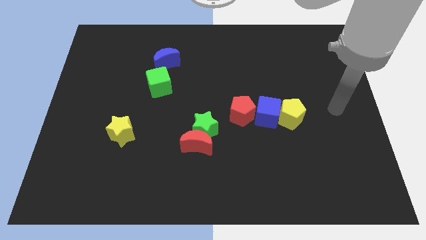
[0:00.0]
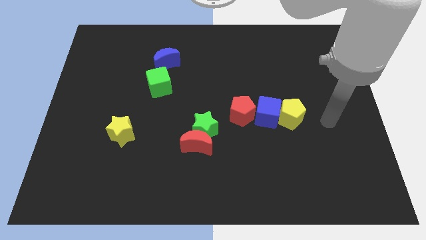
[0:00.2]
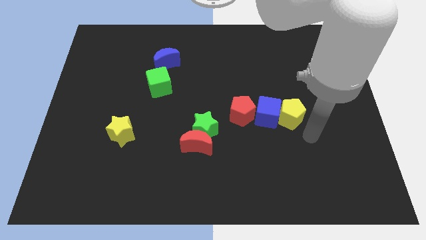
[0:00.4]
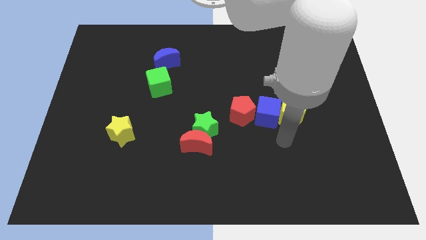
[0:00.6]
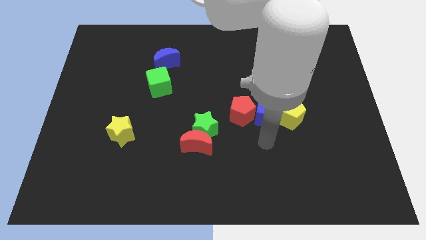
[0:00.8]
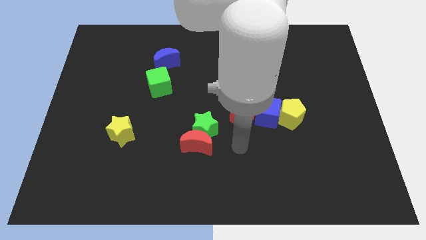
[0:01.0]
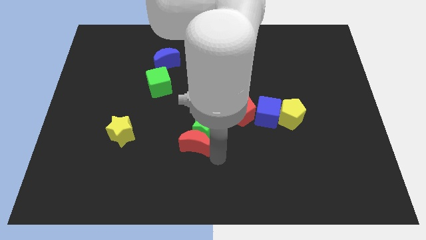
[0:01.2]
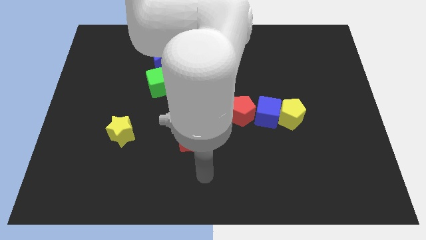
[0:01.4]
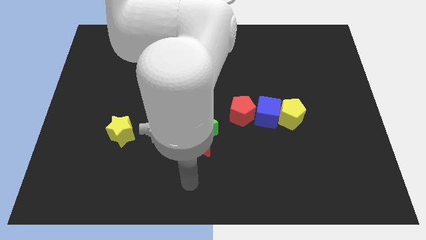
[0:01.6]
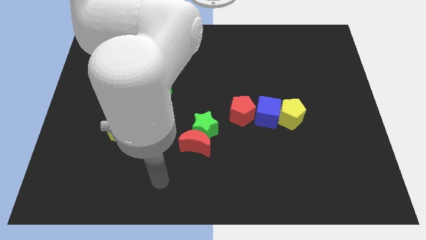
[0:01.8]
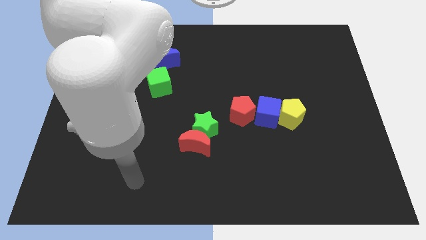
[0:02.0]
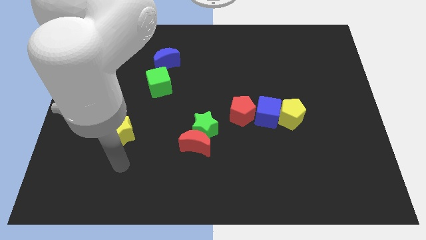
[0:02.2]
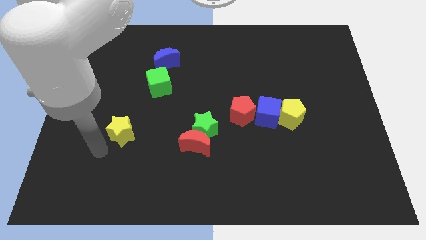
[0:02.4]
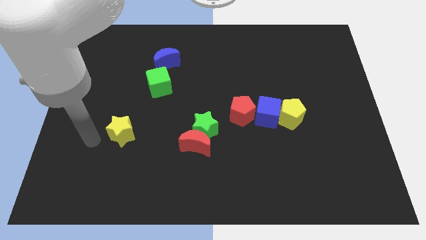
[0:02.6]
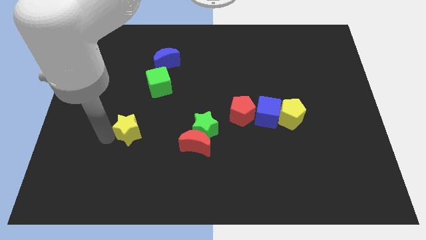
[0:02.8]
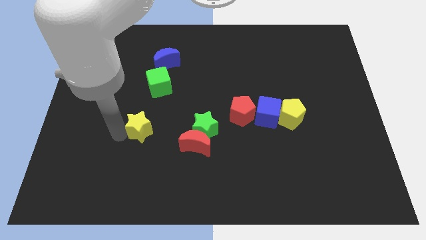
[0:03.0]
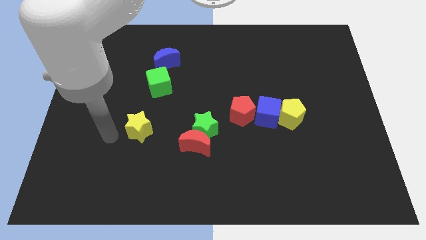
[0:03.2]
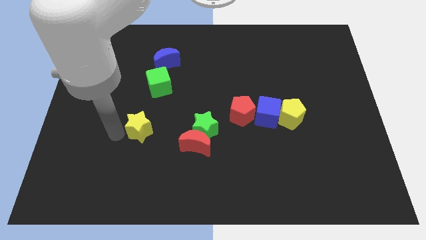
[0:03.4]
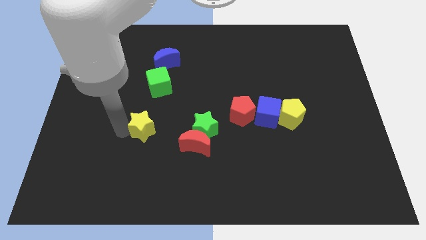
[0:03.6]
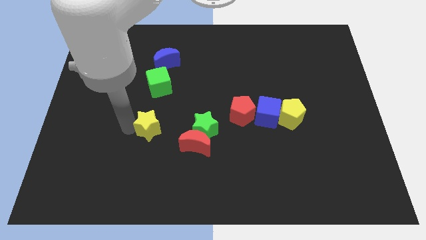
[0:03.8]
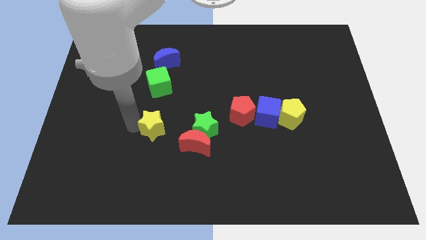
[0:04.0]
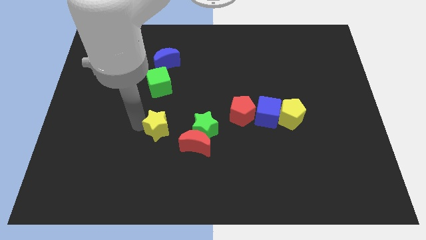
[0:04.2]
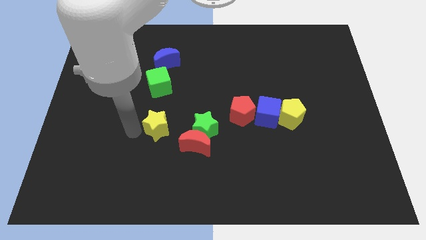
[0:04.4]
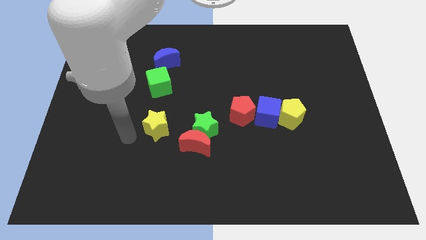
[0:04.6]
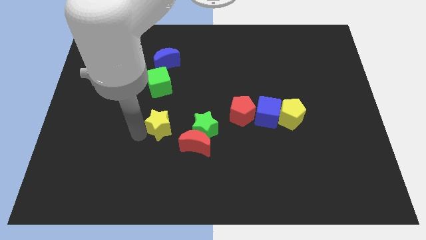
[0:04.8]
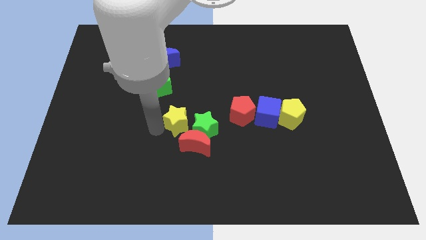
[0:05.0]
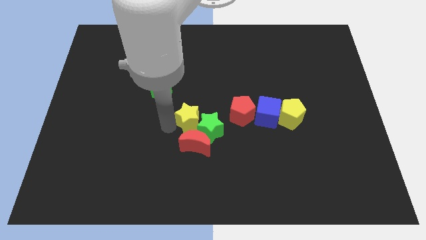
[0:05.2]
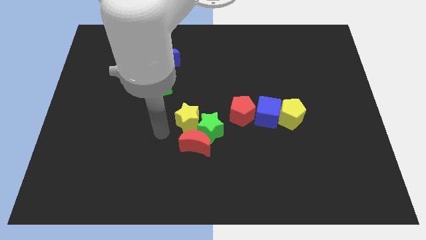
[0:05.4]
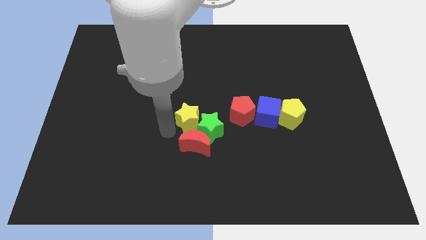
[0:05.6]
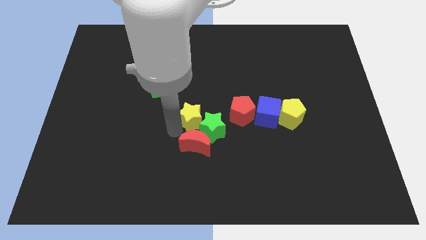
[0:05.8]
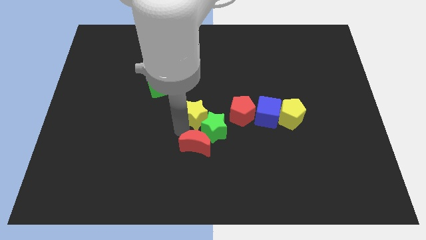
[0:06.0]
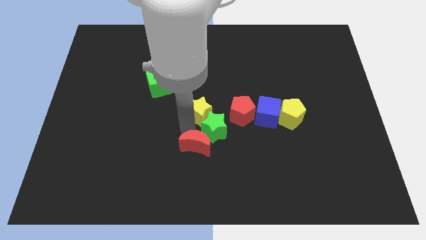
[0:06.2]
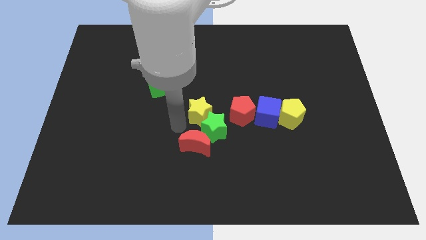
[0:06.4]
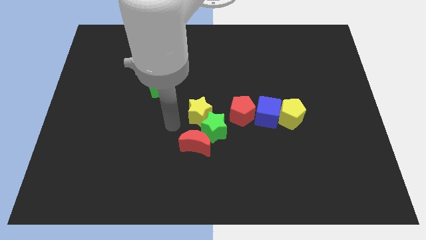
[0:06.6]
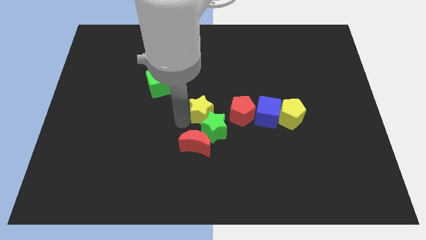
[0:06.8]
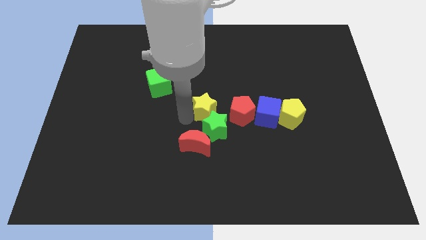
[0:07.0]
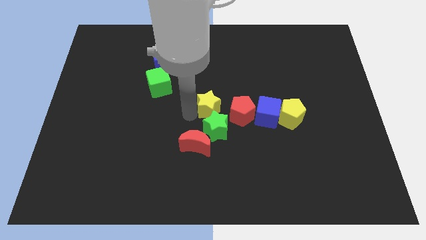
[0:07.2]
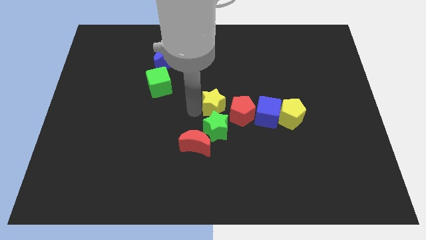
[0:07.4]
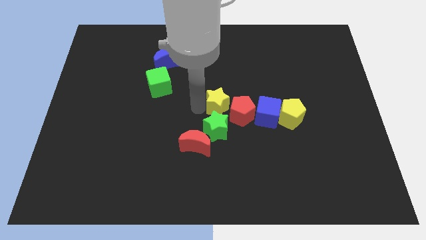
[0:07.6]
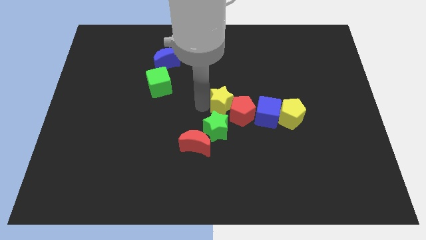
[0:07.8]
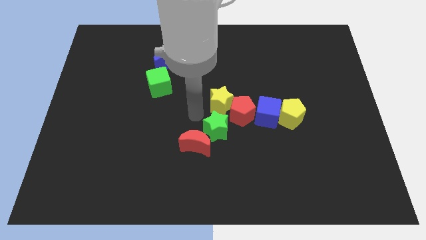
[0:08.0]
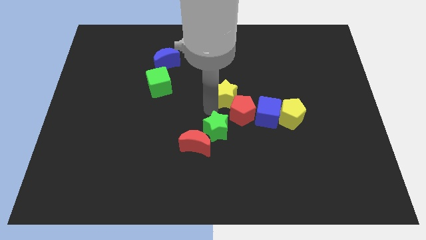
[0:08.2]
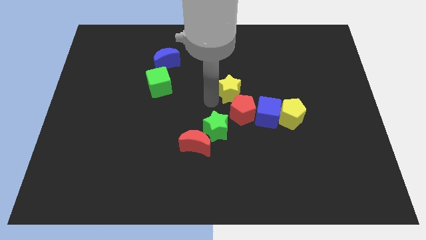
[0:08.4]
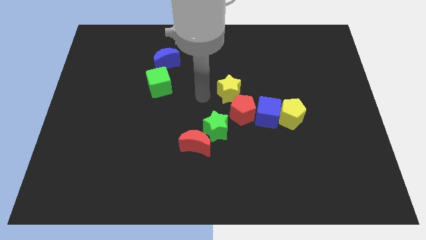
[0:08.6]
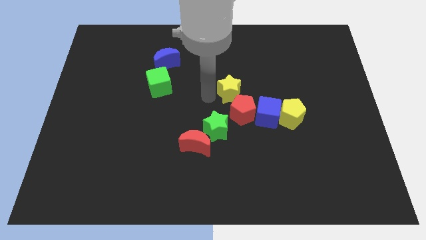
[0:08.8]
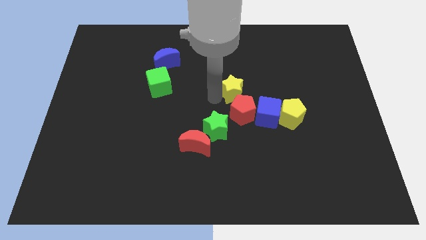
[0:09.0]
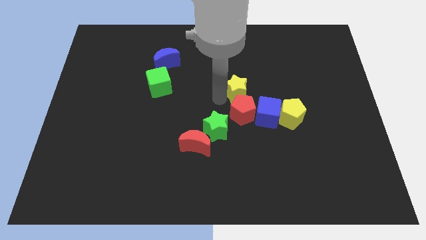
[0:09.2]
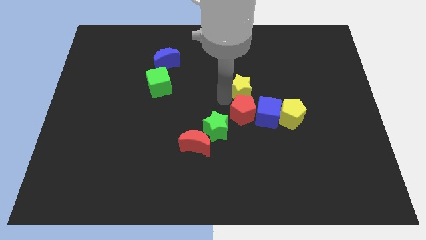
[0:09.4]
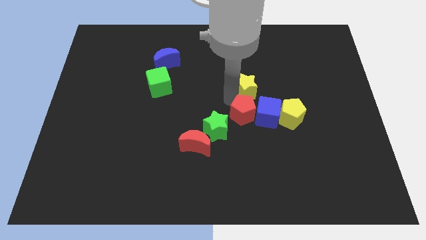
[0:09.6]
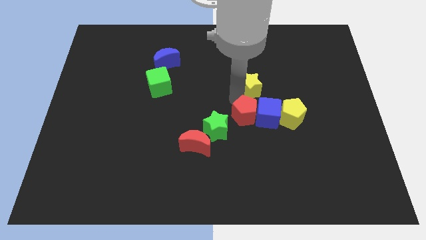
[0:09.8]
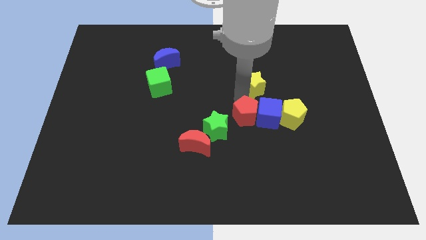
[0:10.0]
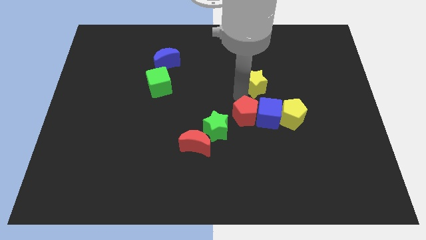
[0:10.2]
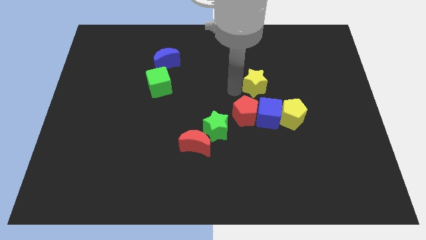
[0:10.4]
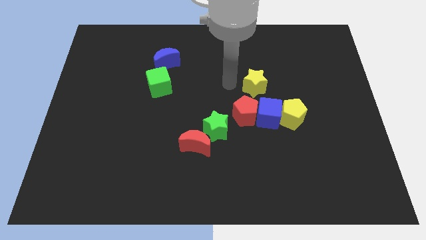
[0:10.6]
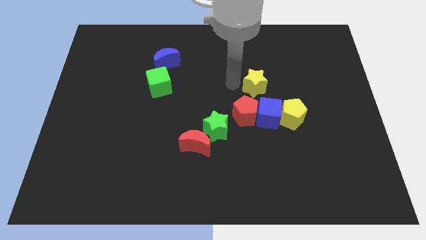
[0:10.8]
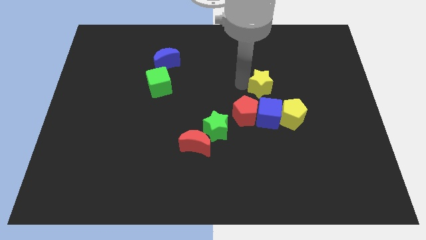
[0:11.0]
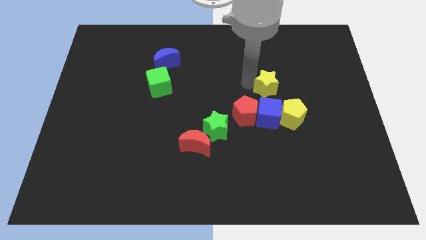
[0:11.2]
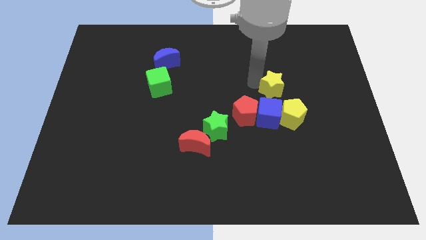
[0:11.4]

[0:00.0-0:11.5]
move the yellow star diagonally up and to the right of the blue cube
